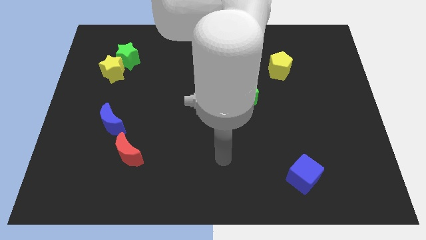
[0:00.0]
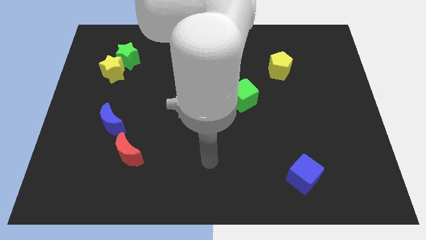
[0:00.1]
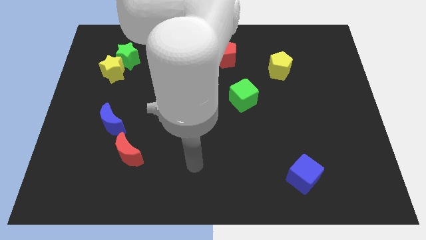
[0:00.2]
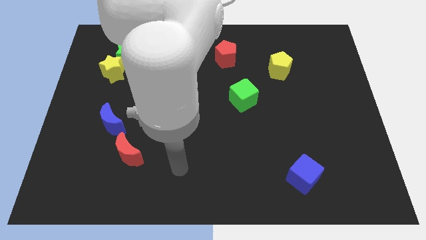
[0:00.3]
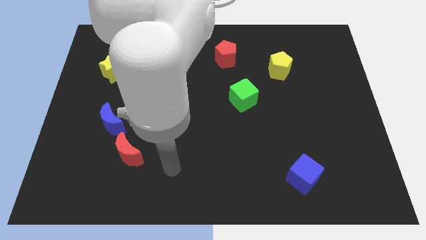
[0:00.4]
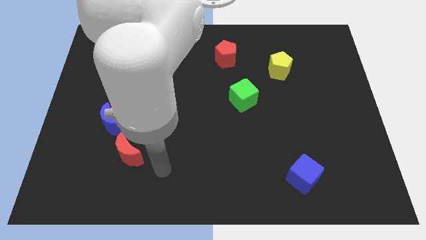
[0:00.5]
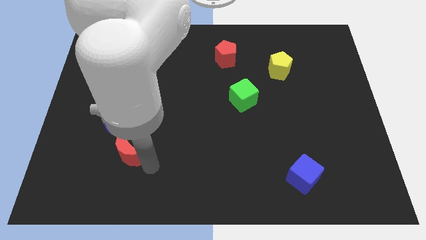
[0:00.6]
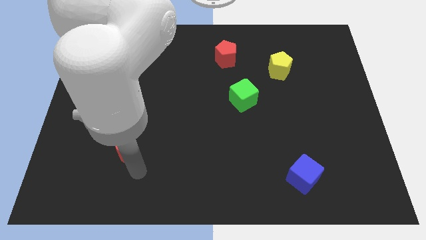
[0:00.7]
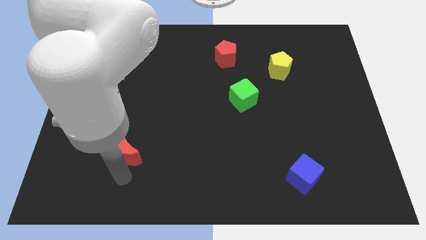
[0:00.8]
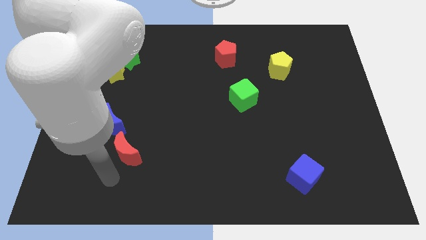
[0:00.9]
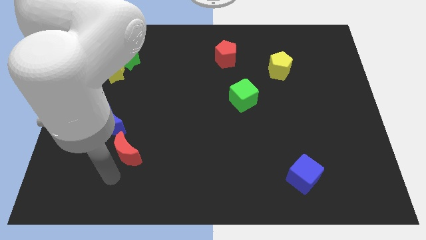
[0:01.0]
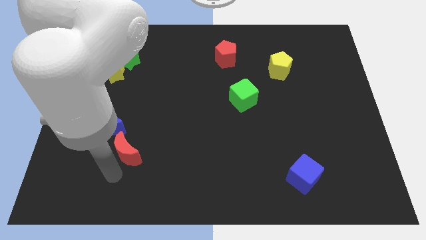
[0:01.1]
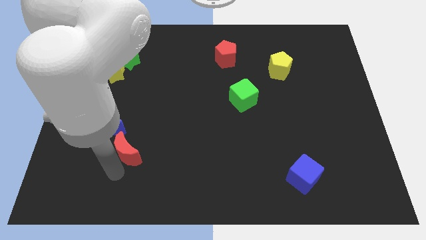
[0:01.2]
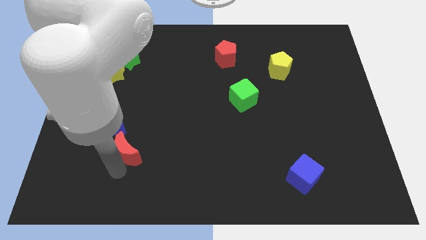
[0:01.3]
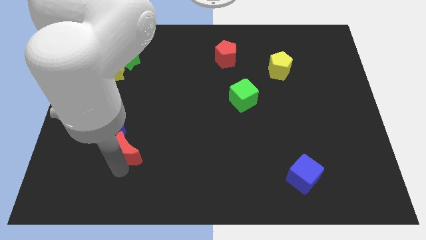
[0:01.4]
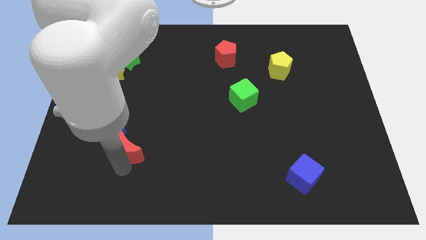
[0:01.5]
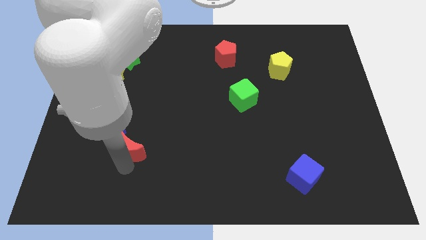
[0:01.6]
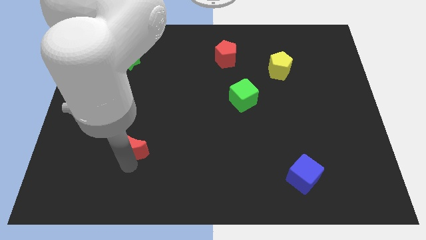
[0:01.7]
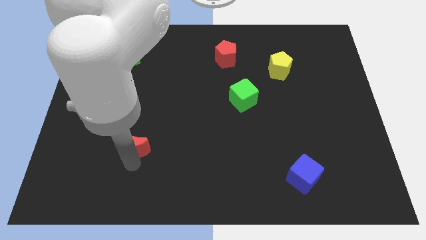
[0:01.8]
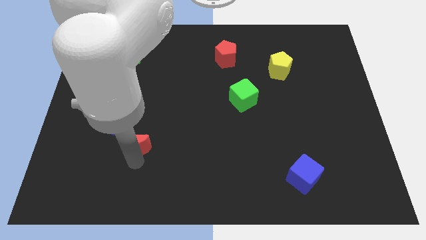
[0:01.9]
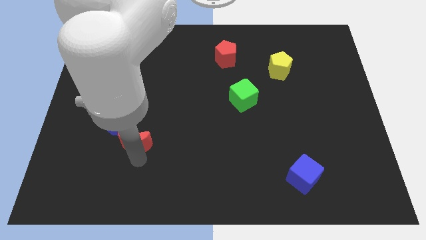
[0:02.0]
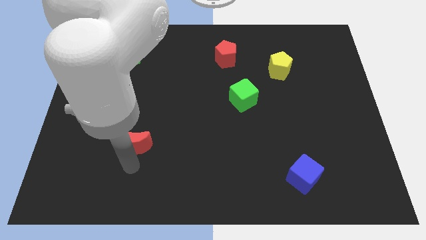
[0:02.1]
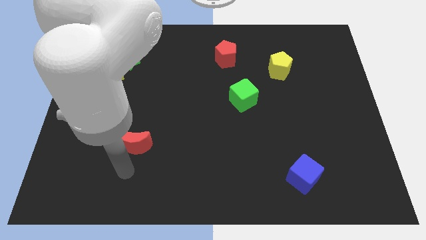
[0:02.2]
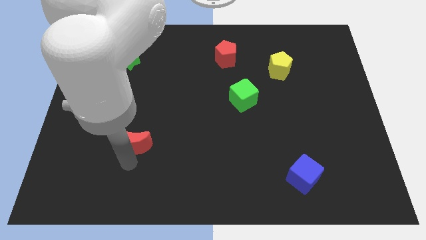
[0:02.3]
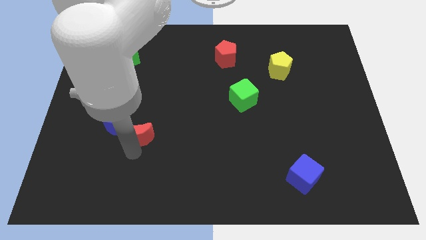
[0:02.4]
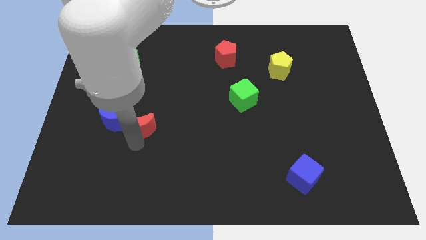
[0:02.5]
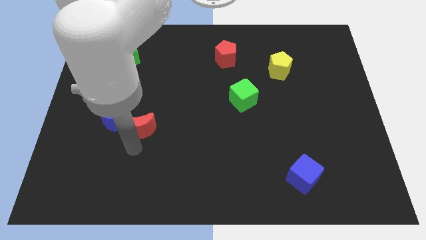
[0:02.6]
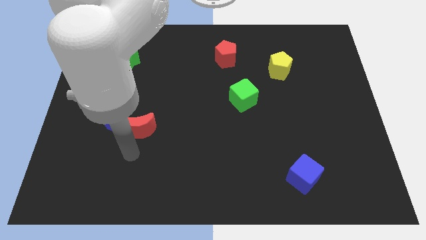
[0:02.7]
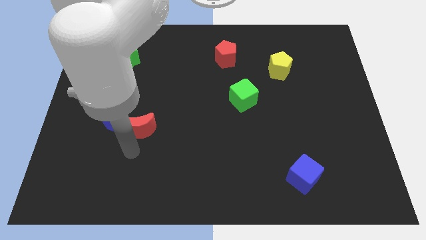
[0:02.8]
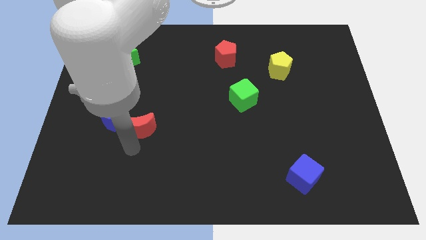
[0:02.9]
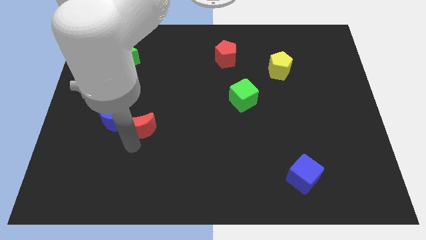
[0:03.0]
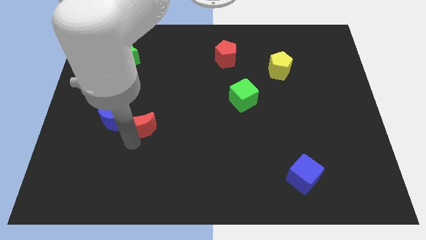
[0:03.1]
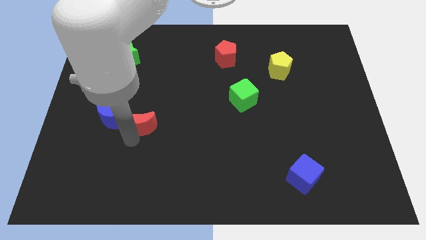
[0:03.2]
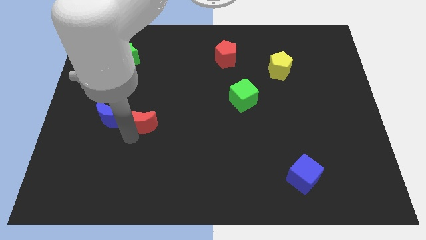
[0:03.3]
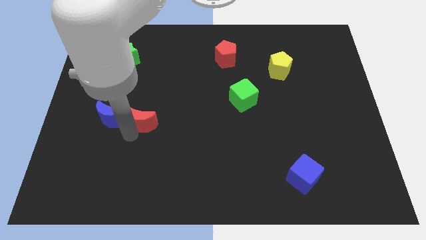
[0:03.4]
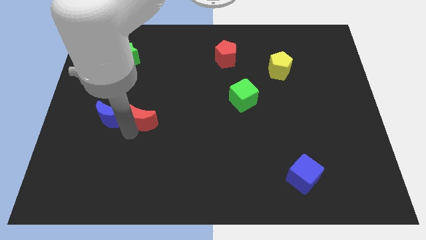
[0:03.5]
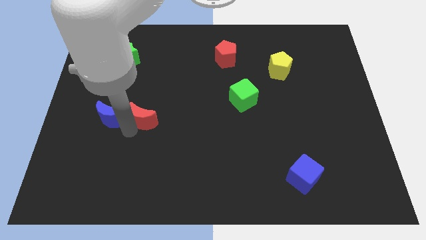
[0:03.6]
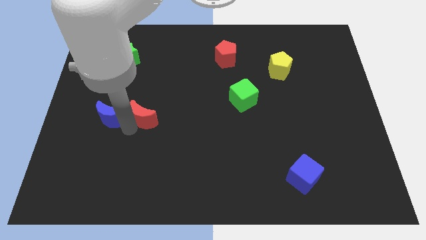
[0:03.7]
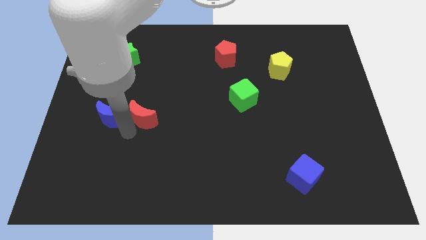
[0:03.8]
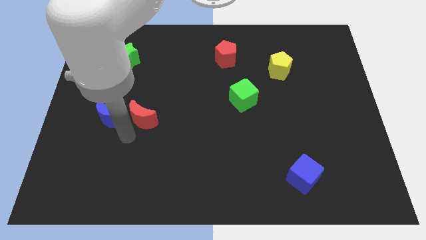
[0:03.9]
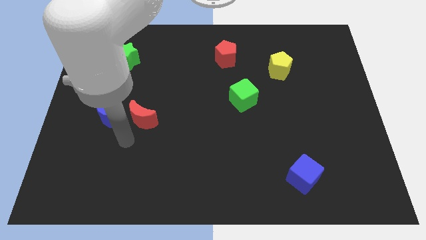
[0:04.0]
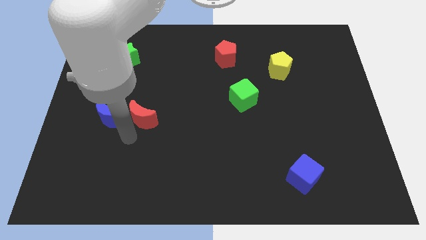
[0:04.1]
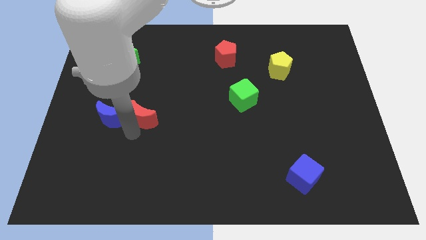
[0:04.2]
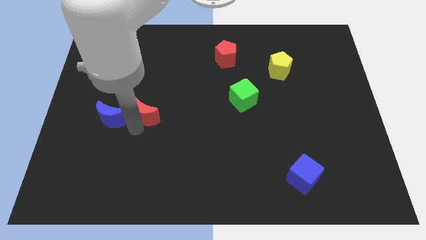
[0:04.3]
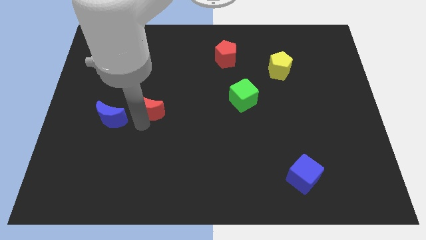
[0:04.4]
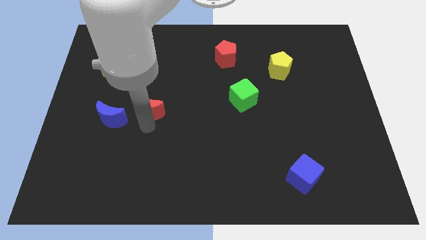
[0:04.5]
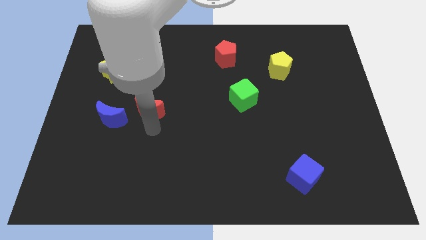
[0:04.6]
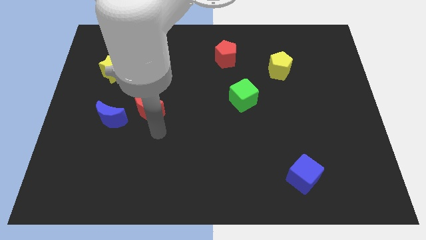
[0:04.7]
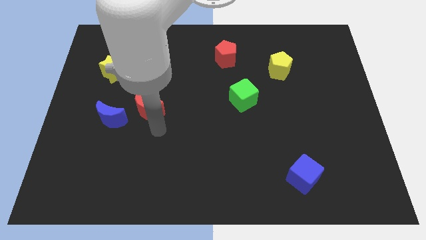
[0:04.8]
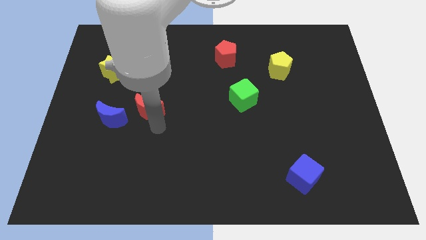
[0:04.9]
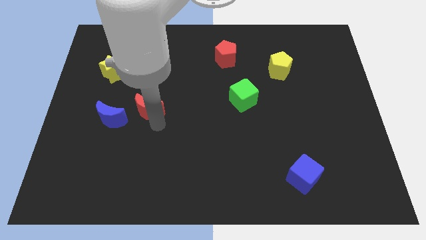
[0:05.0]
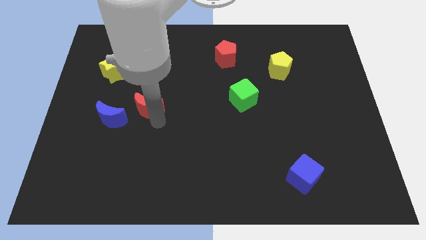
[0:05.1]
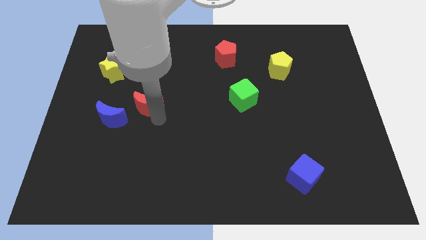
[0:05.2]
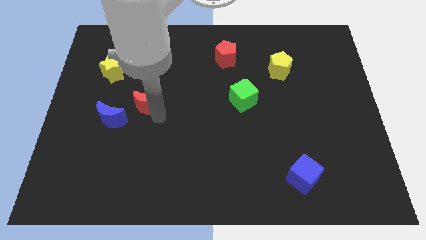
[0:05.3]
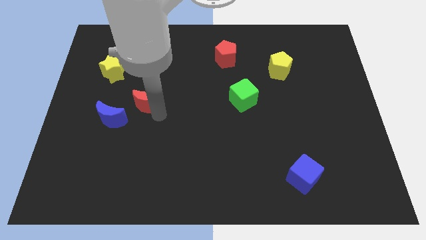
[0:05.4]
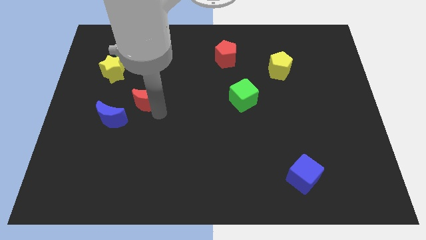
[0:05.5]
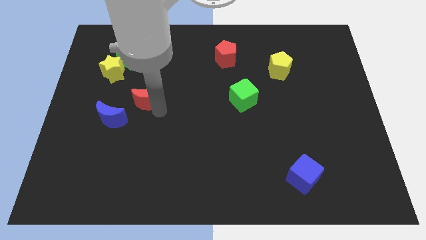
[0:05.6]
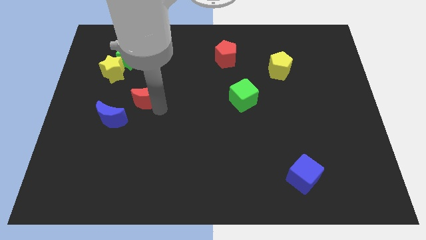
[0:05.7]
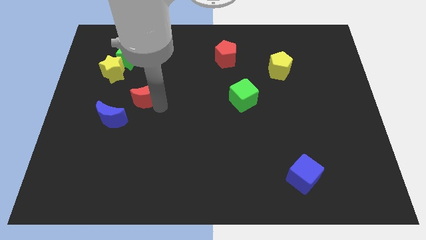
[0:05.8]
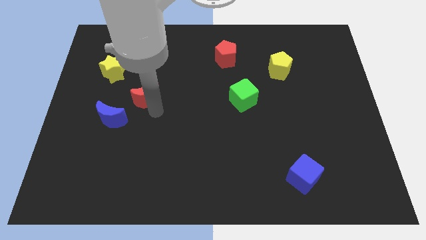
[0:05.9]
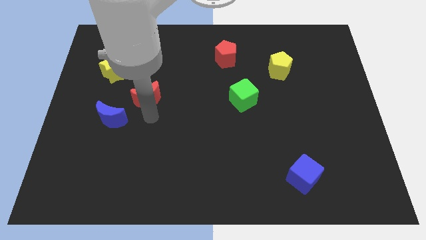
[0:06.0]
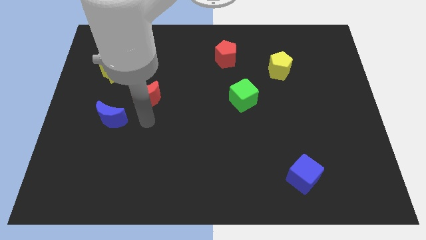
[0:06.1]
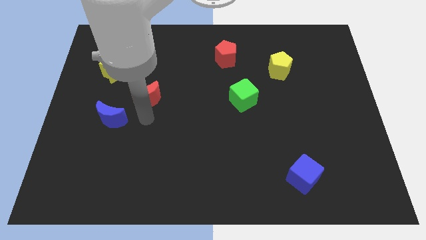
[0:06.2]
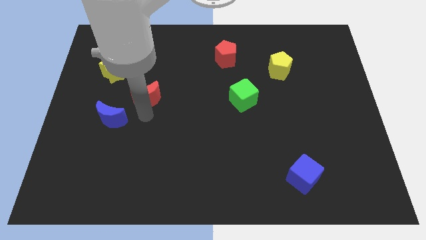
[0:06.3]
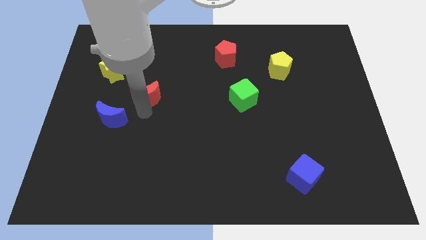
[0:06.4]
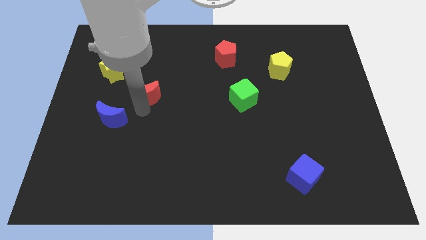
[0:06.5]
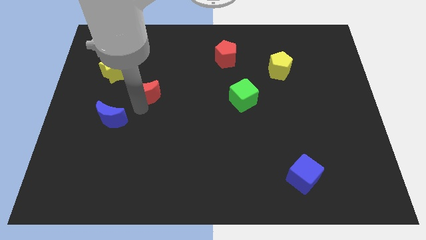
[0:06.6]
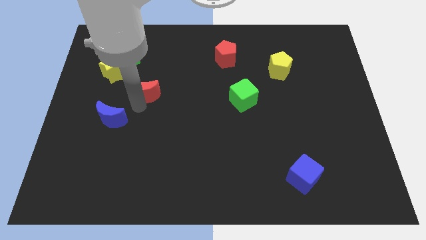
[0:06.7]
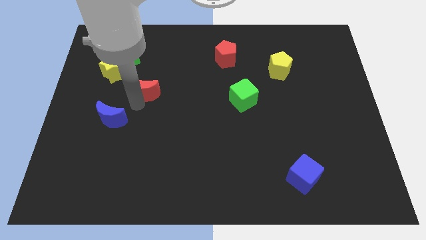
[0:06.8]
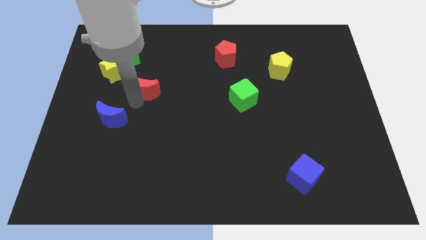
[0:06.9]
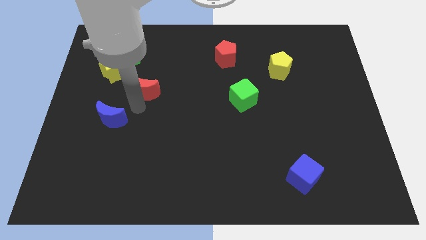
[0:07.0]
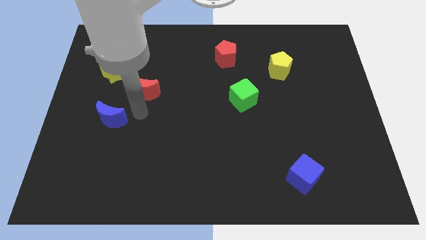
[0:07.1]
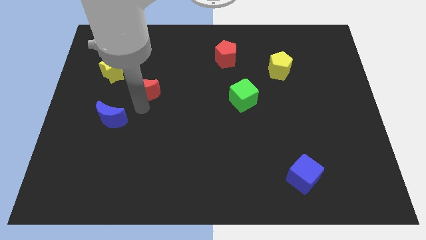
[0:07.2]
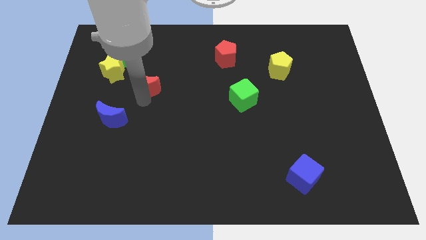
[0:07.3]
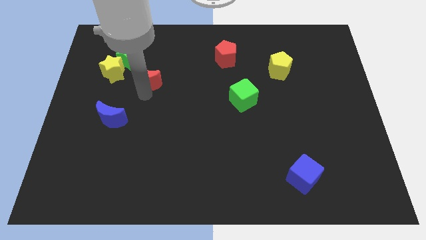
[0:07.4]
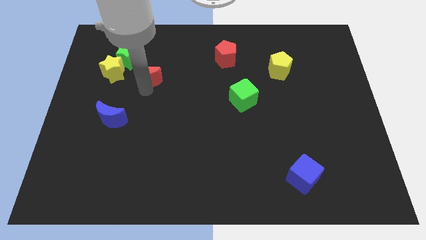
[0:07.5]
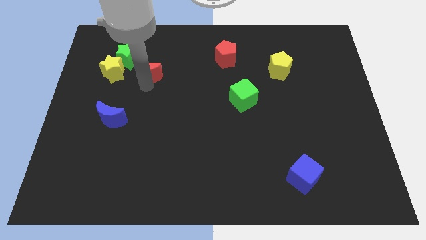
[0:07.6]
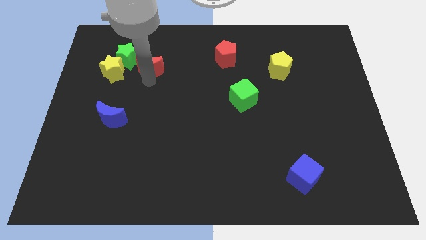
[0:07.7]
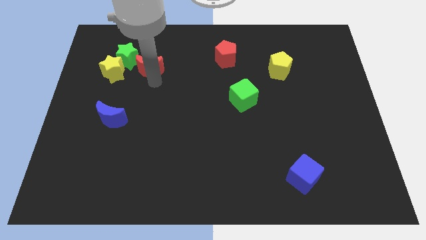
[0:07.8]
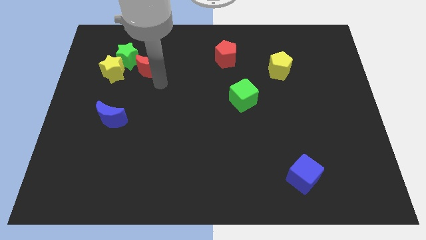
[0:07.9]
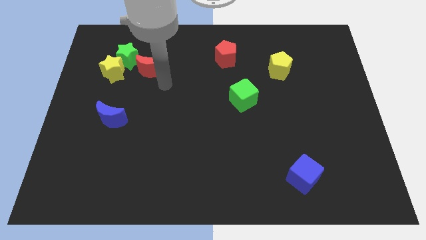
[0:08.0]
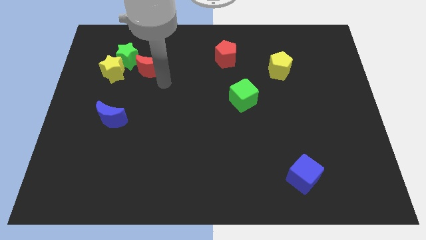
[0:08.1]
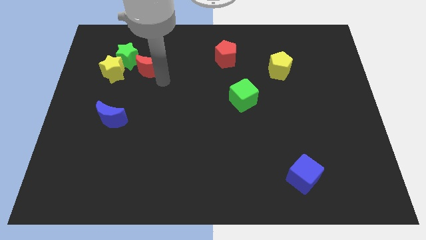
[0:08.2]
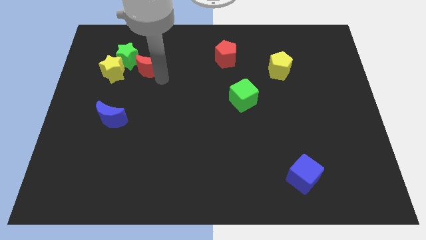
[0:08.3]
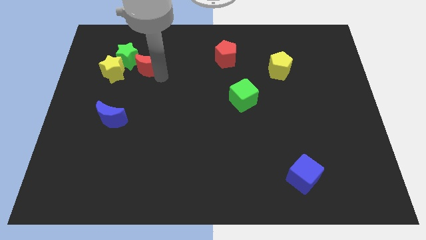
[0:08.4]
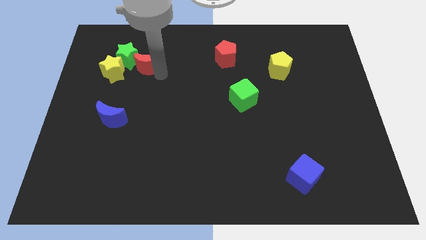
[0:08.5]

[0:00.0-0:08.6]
slide the red moon diagonally up and to the right of the yellow star
